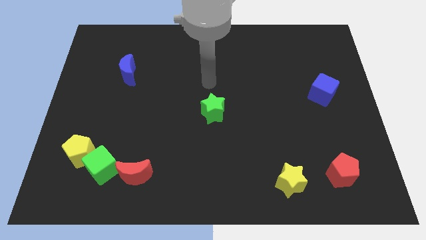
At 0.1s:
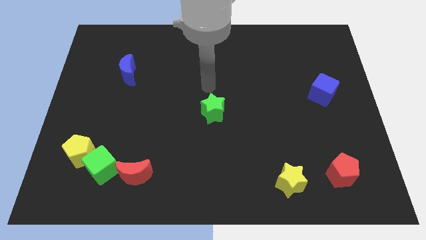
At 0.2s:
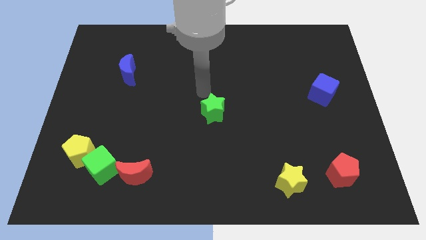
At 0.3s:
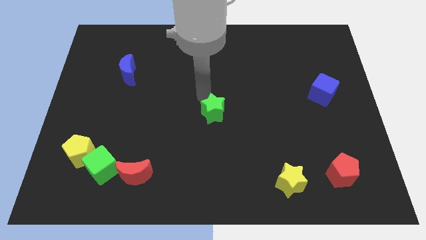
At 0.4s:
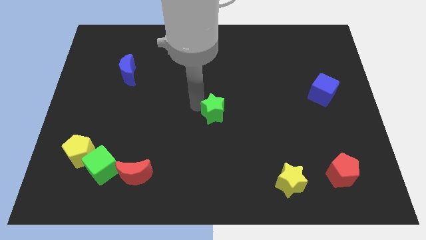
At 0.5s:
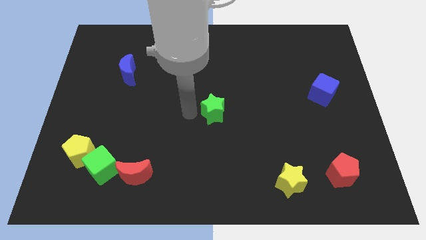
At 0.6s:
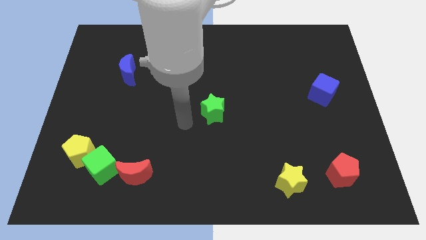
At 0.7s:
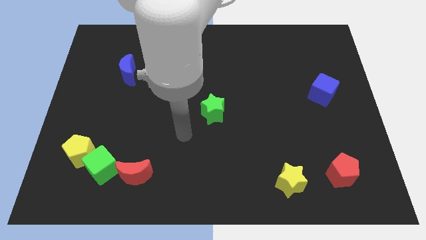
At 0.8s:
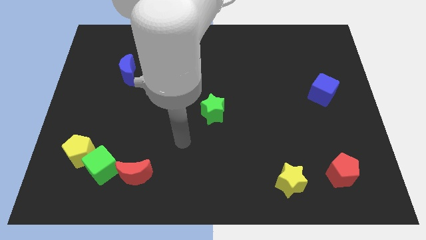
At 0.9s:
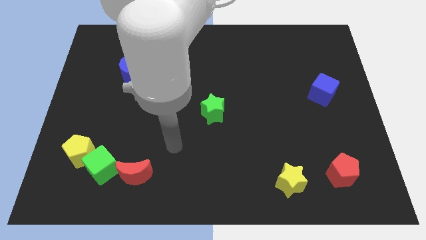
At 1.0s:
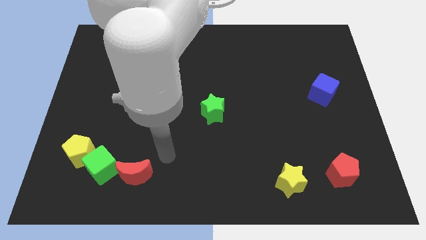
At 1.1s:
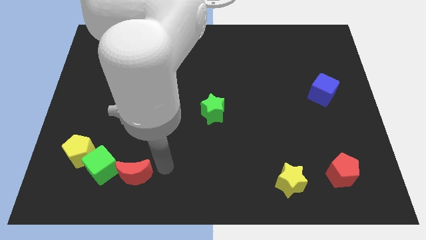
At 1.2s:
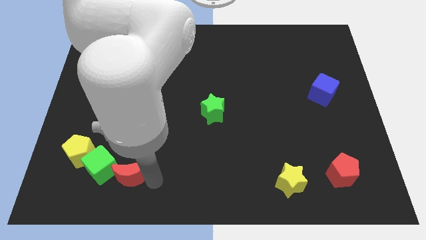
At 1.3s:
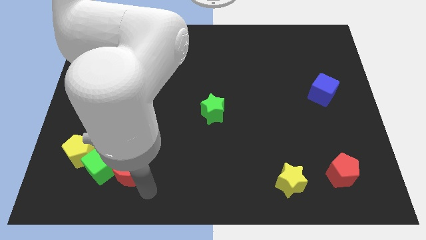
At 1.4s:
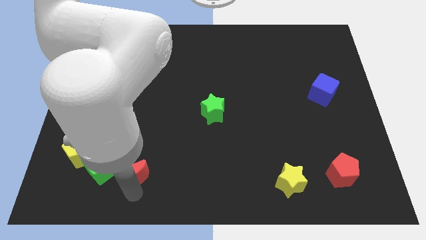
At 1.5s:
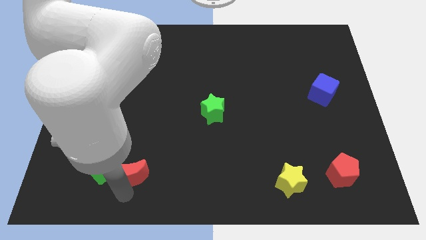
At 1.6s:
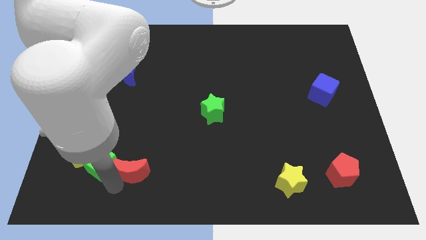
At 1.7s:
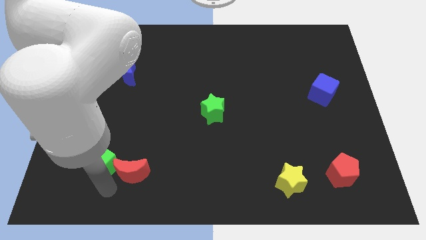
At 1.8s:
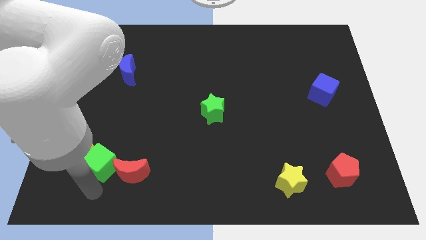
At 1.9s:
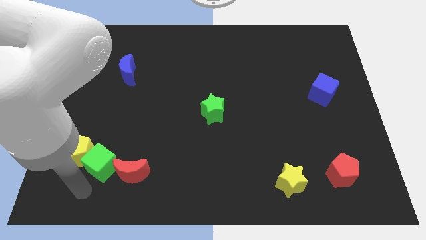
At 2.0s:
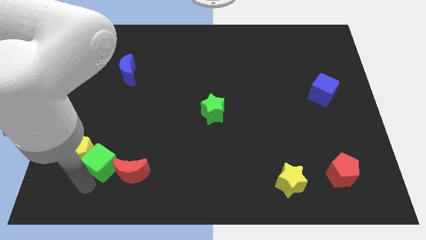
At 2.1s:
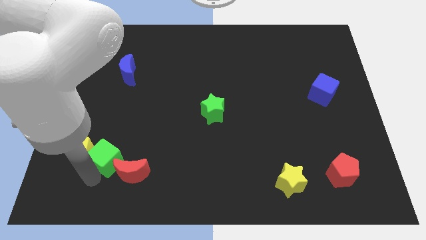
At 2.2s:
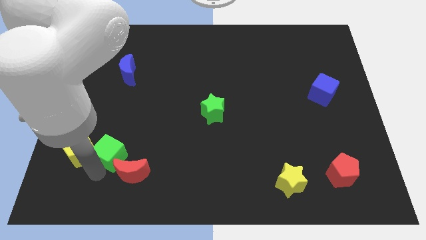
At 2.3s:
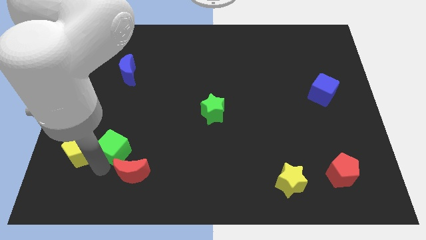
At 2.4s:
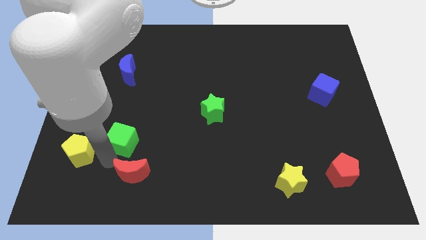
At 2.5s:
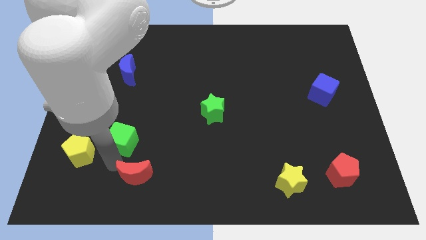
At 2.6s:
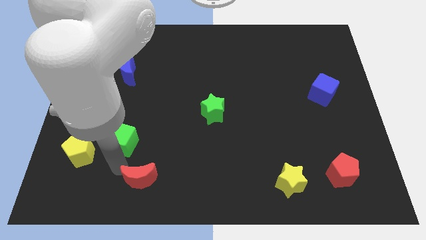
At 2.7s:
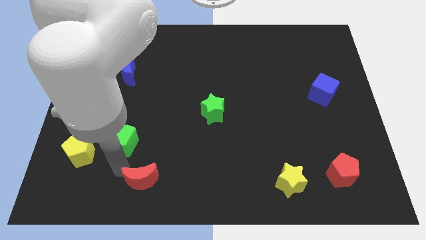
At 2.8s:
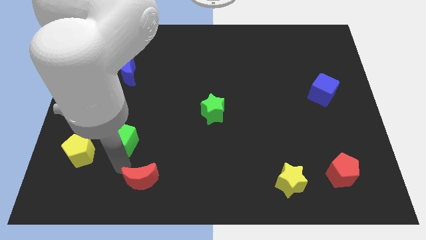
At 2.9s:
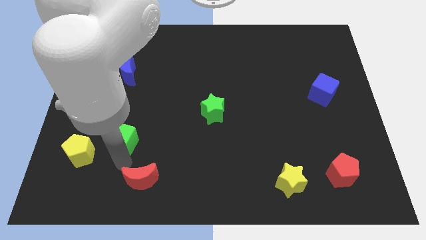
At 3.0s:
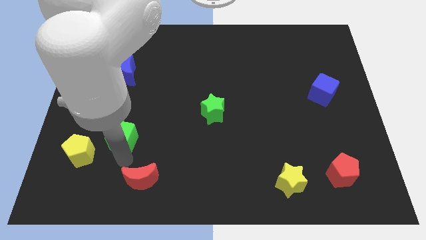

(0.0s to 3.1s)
move the green cube a little bit upwards

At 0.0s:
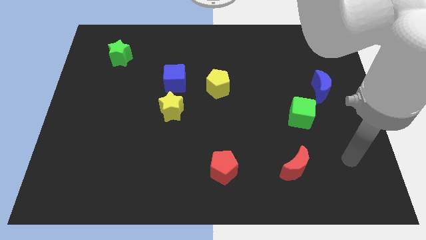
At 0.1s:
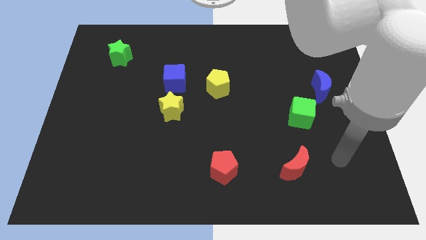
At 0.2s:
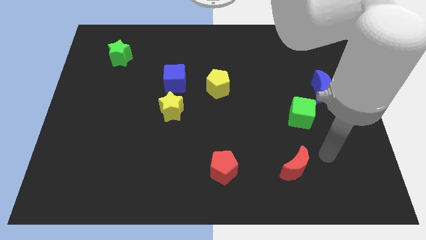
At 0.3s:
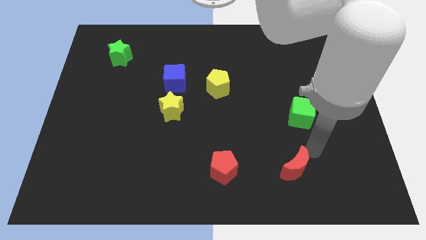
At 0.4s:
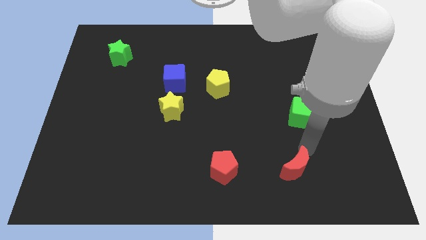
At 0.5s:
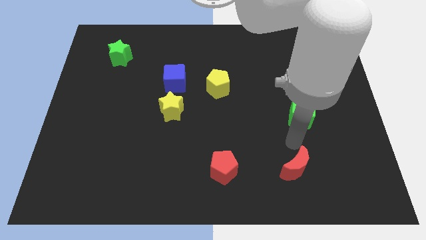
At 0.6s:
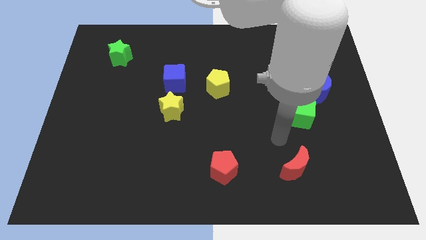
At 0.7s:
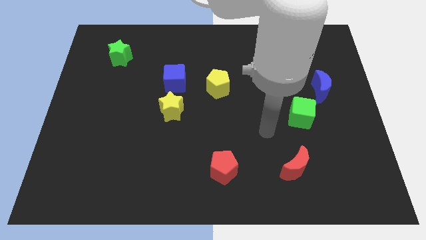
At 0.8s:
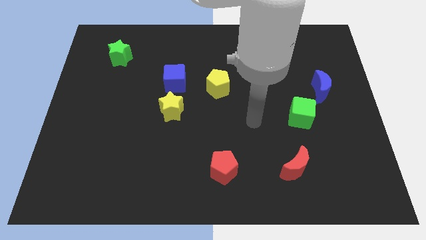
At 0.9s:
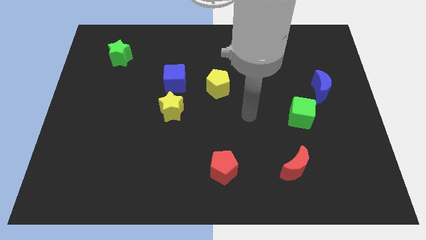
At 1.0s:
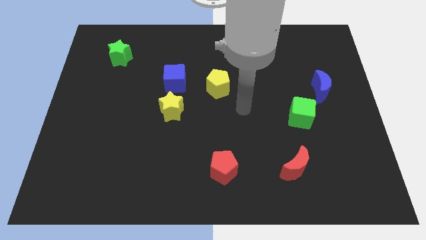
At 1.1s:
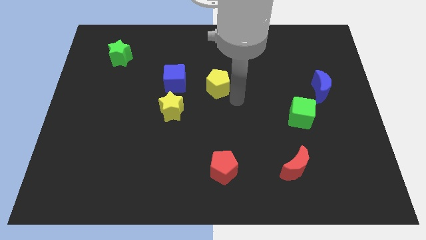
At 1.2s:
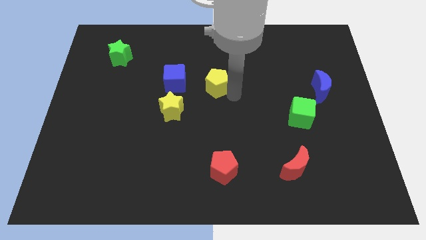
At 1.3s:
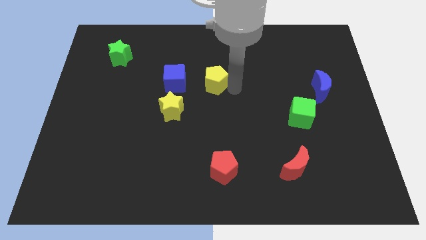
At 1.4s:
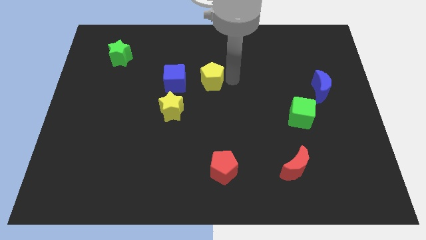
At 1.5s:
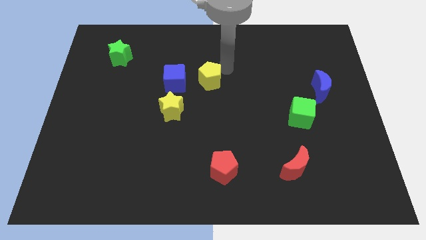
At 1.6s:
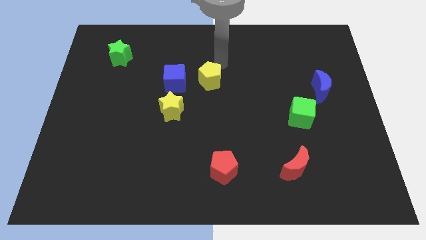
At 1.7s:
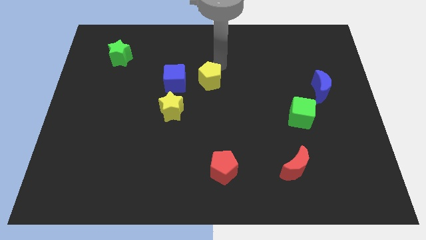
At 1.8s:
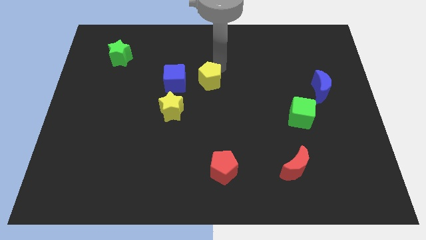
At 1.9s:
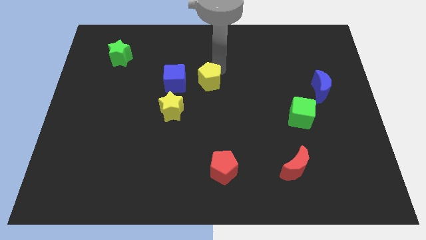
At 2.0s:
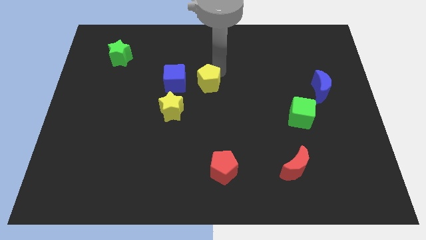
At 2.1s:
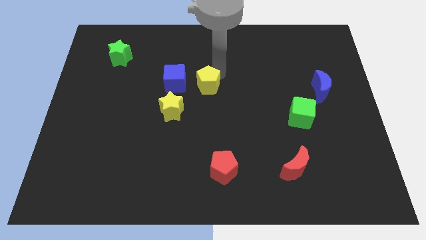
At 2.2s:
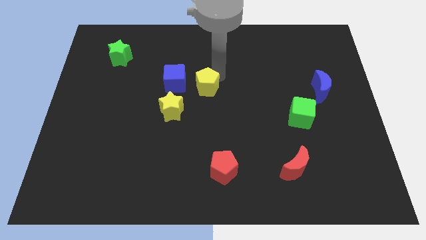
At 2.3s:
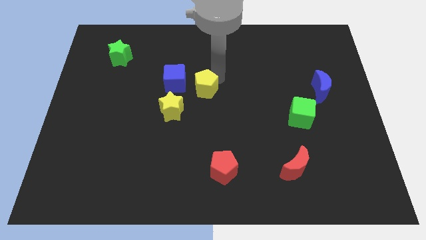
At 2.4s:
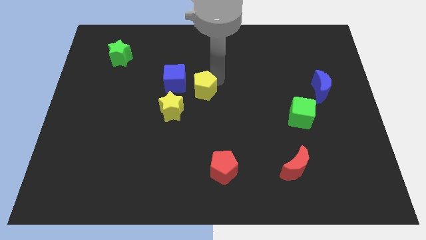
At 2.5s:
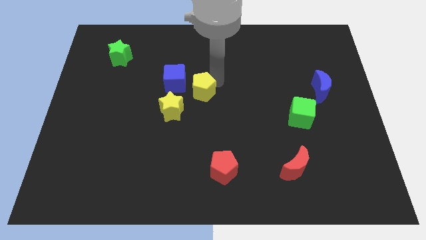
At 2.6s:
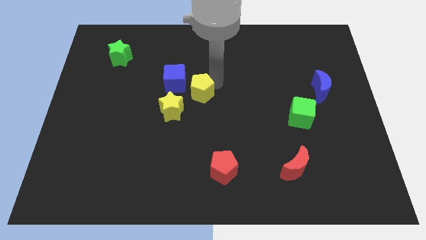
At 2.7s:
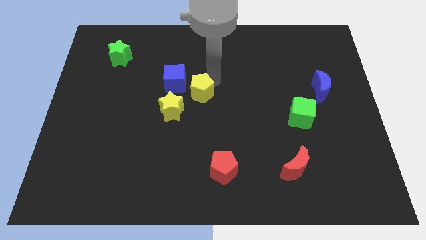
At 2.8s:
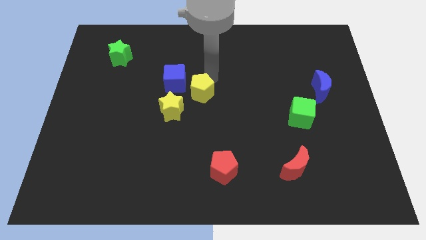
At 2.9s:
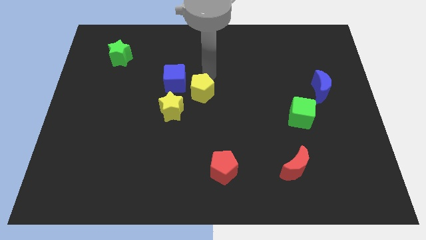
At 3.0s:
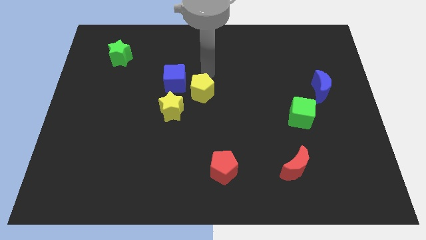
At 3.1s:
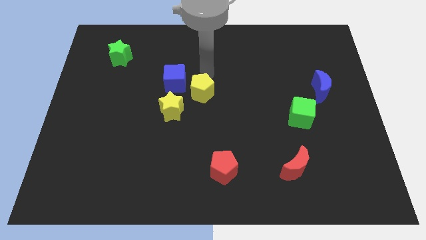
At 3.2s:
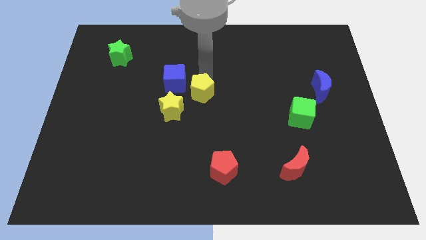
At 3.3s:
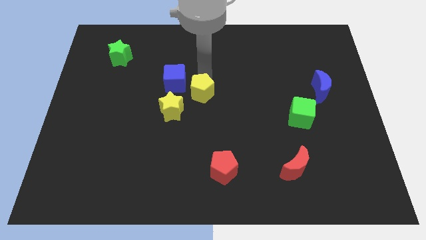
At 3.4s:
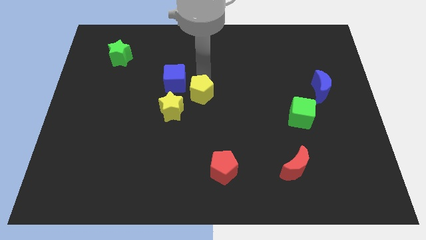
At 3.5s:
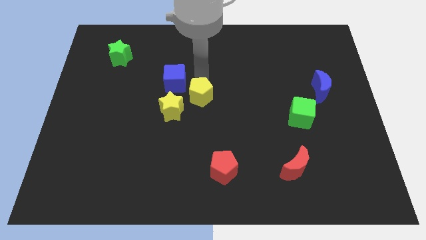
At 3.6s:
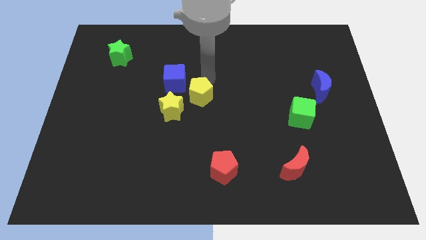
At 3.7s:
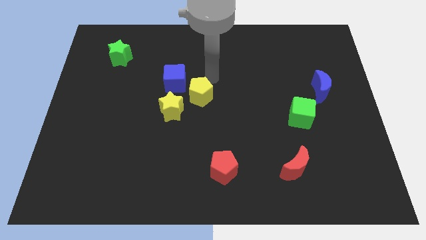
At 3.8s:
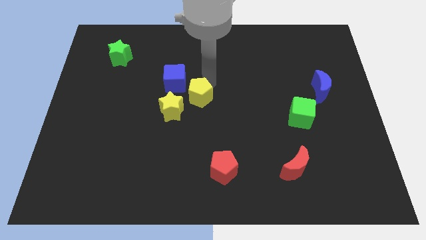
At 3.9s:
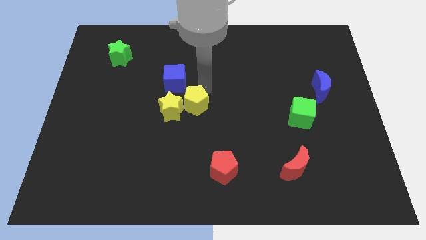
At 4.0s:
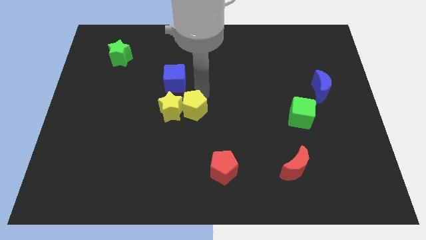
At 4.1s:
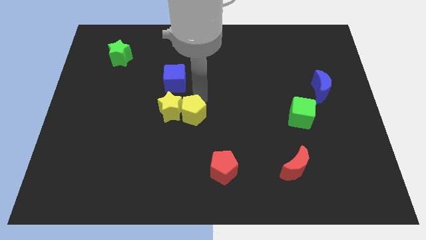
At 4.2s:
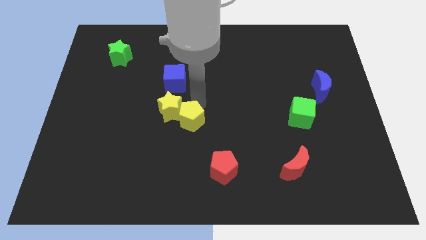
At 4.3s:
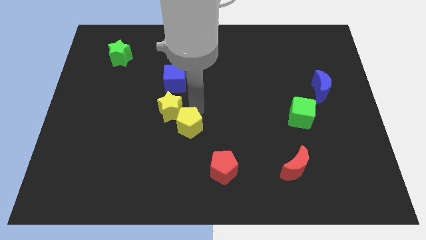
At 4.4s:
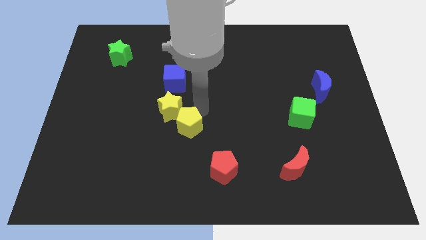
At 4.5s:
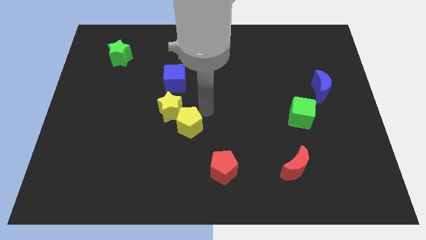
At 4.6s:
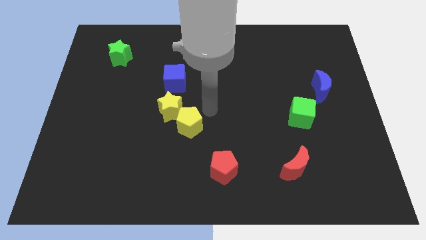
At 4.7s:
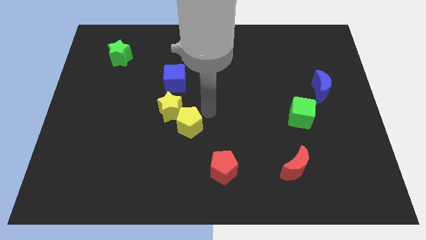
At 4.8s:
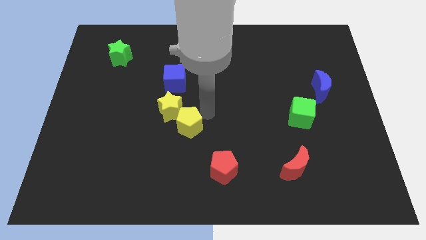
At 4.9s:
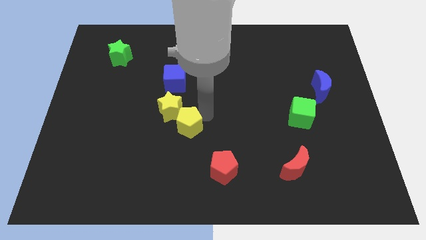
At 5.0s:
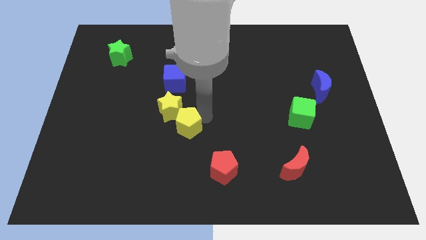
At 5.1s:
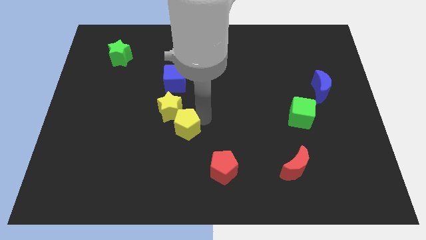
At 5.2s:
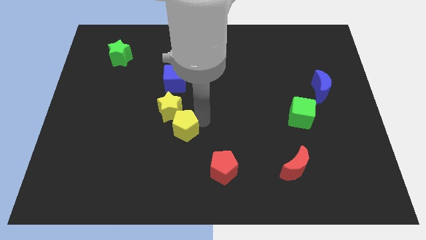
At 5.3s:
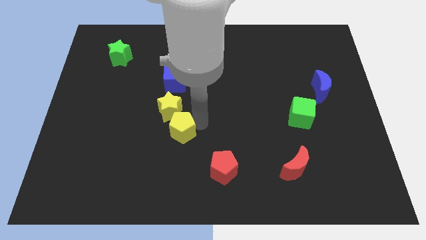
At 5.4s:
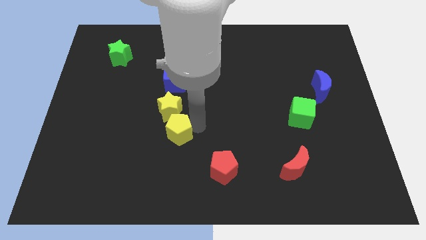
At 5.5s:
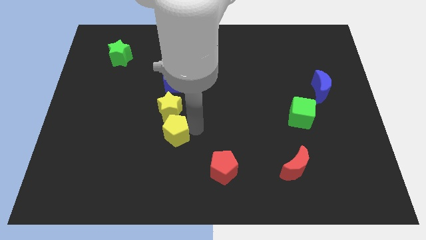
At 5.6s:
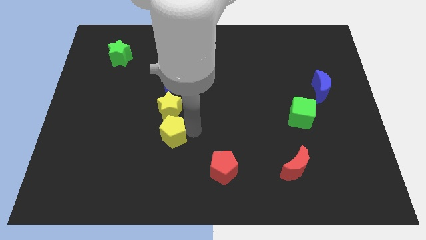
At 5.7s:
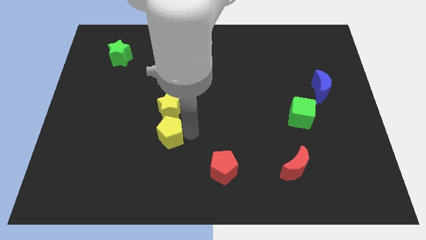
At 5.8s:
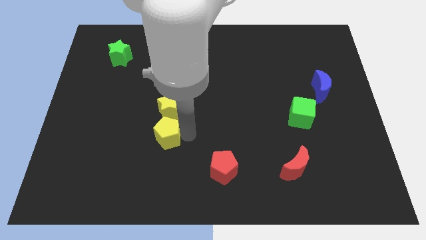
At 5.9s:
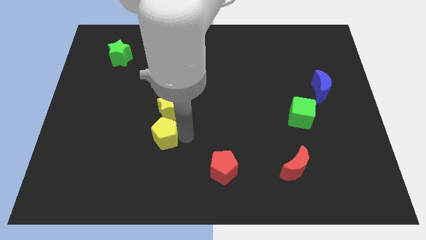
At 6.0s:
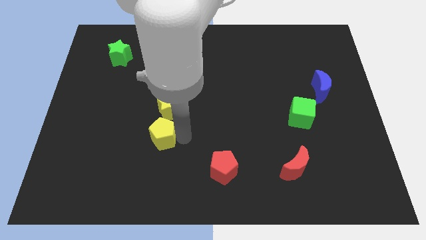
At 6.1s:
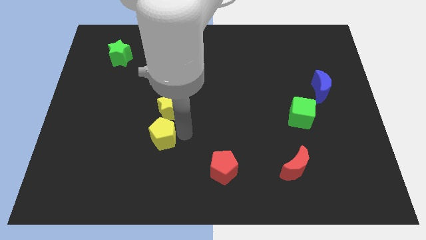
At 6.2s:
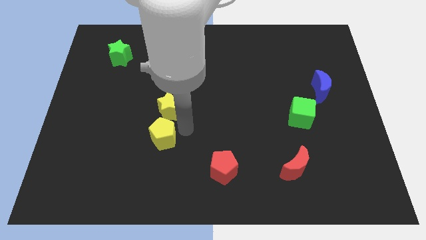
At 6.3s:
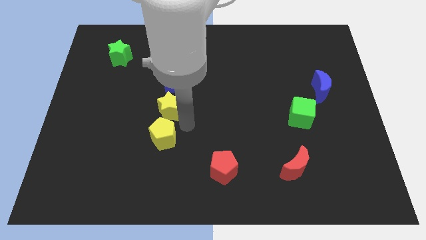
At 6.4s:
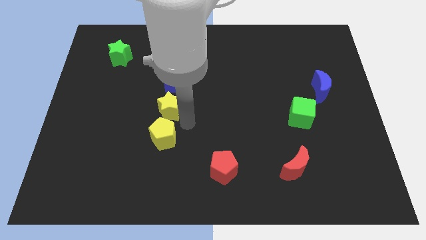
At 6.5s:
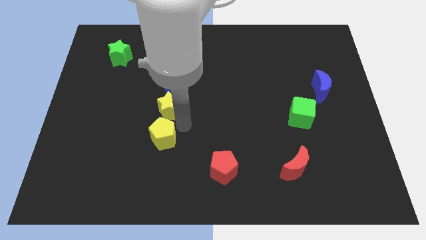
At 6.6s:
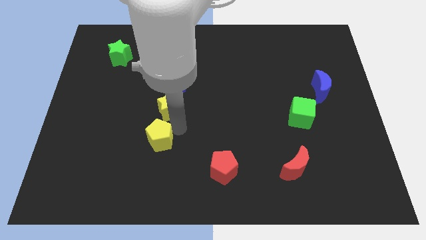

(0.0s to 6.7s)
slide the yellow pentagon downwards and to the left
